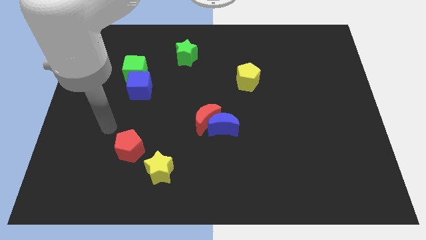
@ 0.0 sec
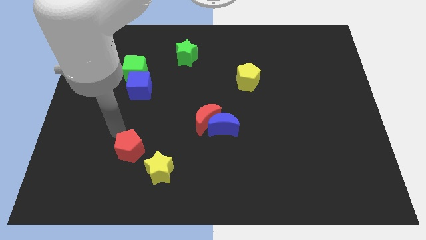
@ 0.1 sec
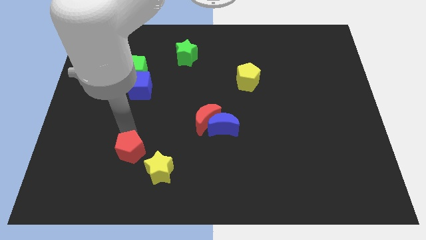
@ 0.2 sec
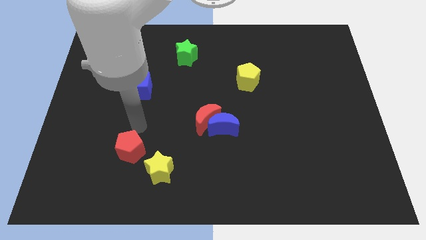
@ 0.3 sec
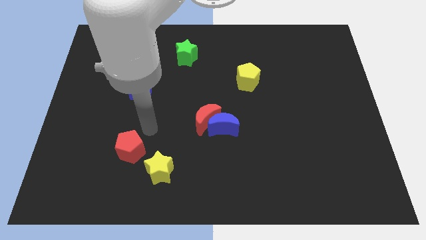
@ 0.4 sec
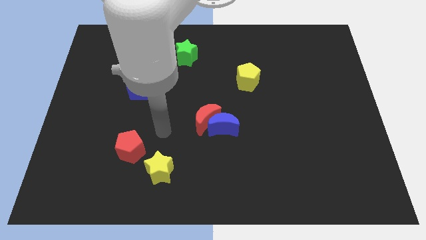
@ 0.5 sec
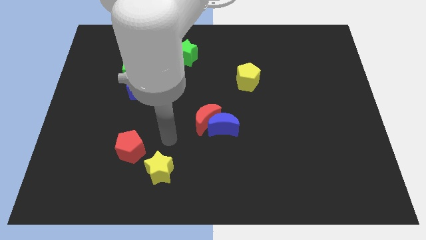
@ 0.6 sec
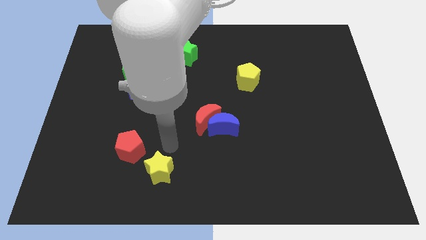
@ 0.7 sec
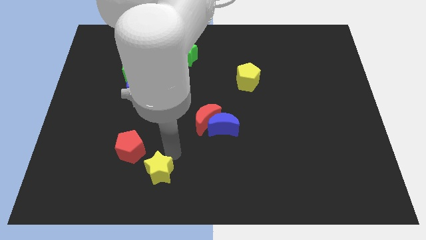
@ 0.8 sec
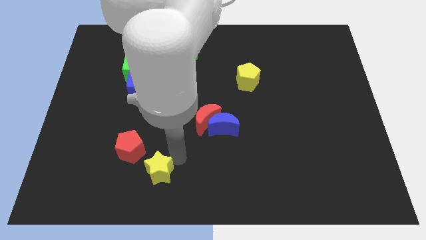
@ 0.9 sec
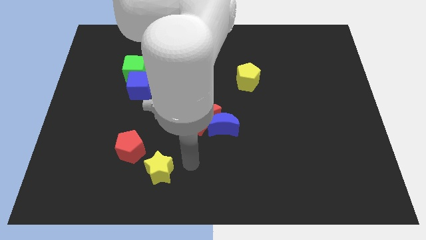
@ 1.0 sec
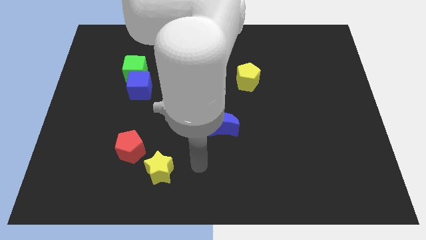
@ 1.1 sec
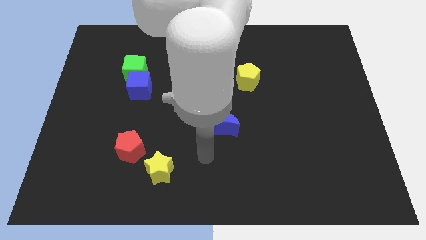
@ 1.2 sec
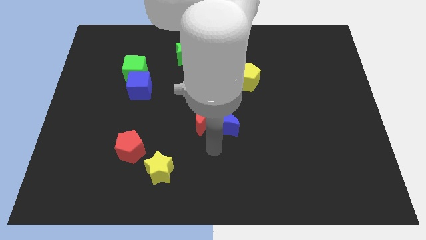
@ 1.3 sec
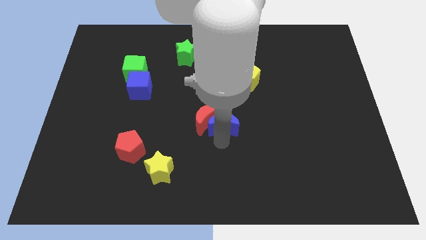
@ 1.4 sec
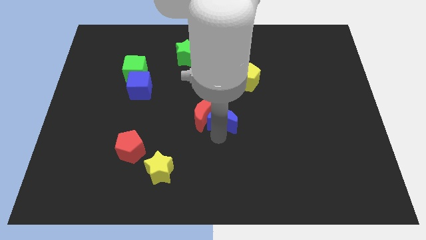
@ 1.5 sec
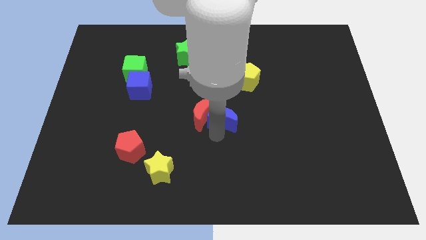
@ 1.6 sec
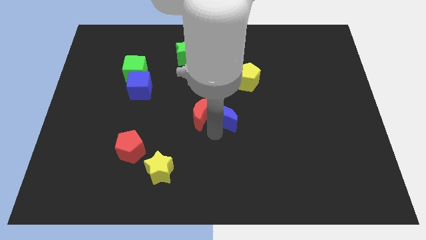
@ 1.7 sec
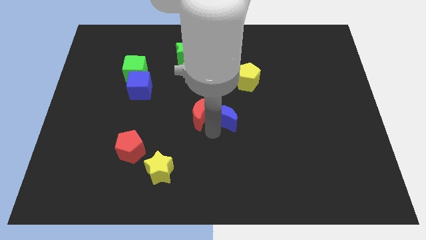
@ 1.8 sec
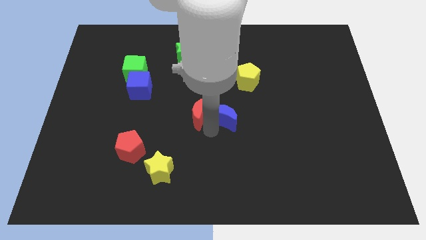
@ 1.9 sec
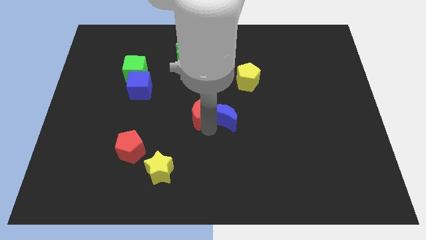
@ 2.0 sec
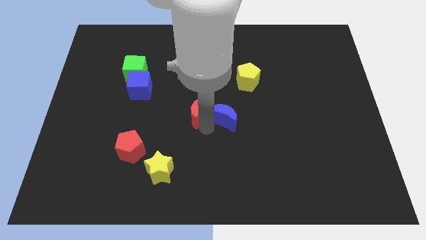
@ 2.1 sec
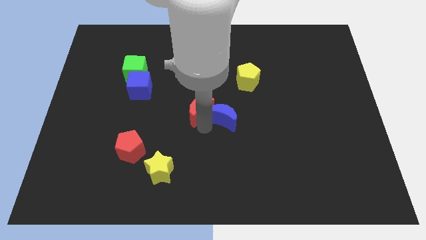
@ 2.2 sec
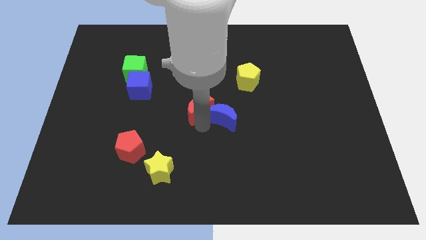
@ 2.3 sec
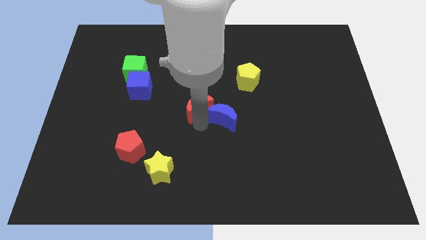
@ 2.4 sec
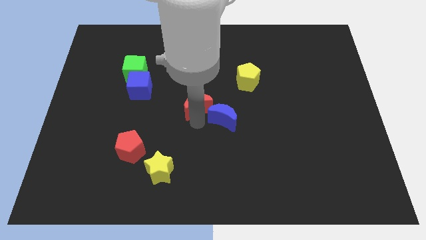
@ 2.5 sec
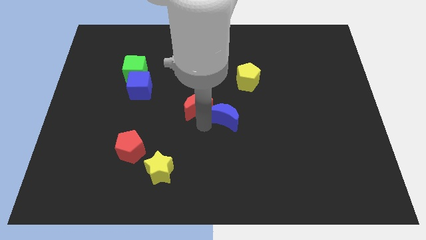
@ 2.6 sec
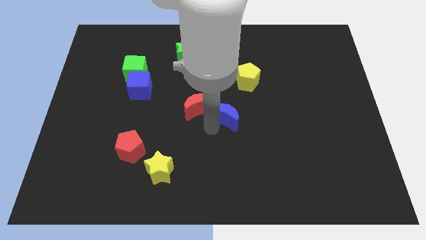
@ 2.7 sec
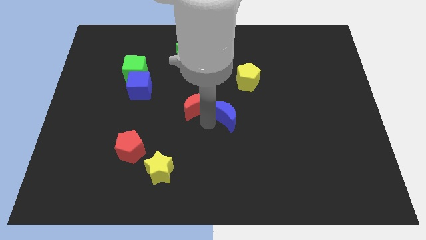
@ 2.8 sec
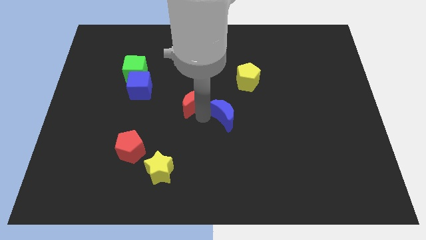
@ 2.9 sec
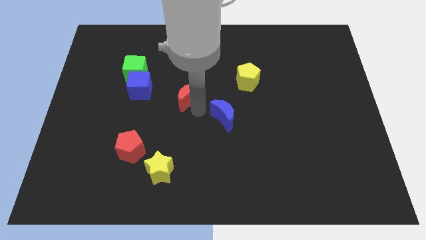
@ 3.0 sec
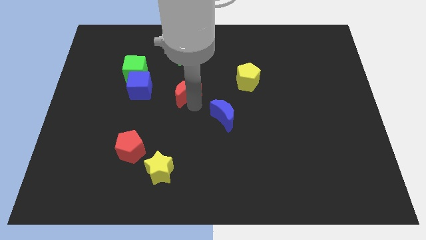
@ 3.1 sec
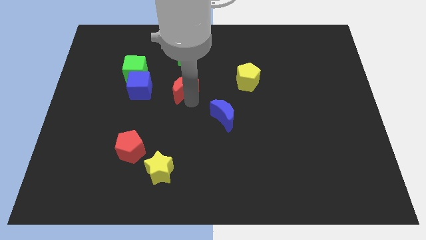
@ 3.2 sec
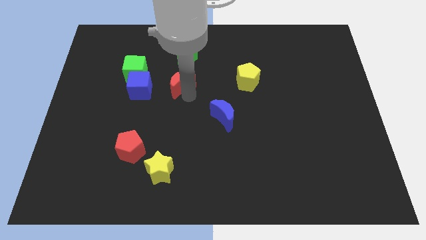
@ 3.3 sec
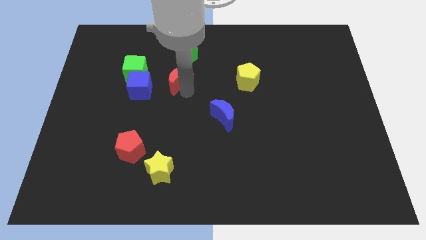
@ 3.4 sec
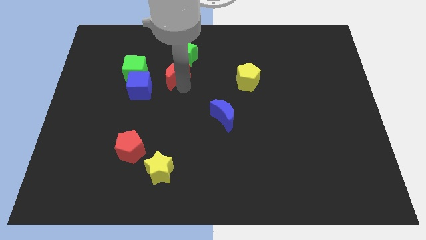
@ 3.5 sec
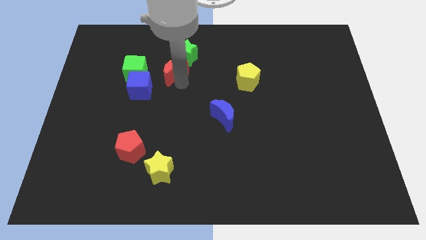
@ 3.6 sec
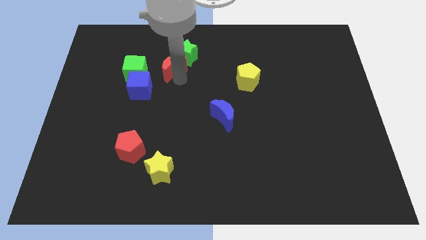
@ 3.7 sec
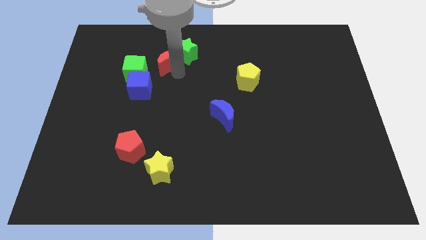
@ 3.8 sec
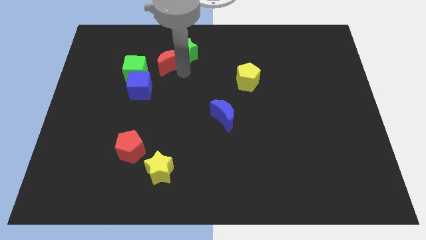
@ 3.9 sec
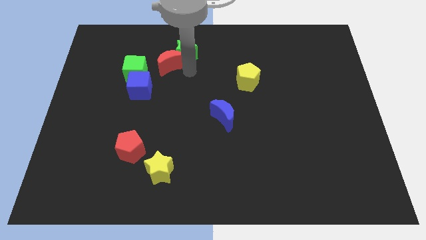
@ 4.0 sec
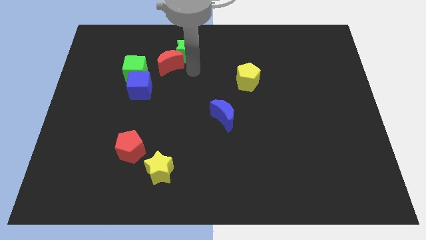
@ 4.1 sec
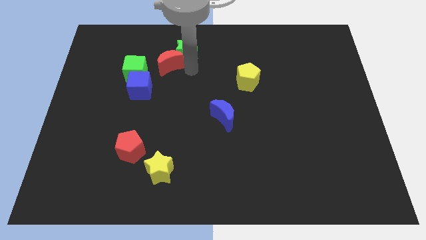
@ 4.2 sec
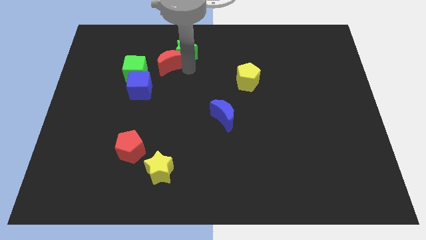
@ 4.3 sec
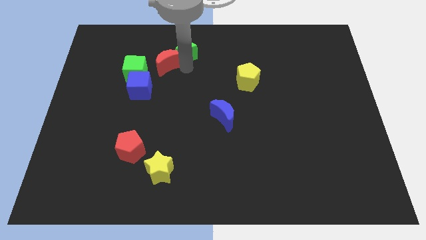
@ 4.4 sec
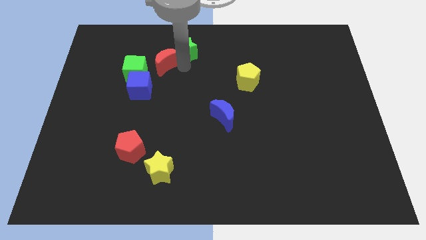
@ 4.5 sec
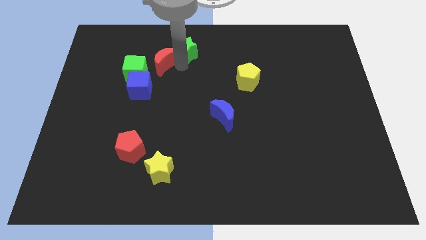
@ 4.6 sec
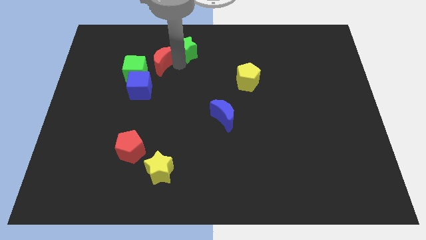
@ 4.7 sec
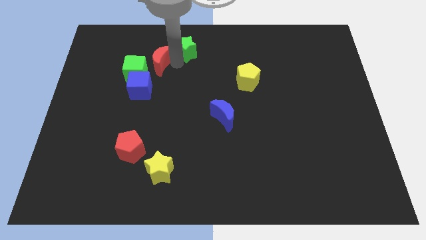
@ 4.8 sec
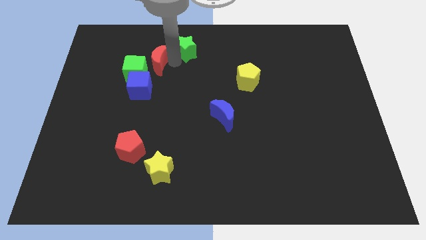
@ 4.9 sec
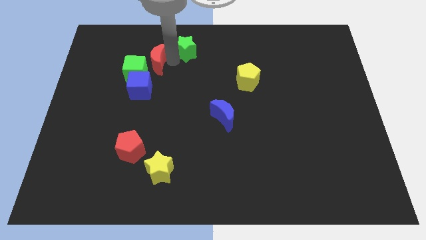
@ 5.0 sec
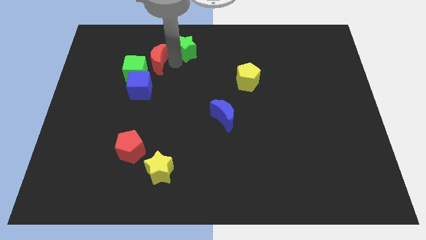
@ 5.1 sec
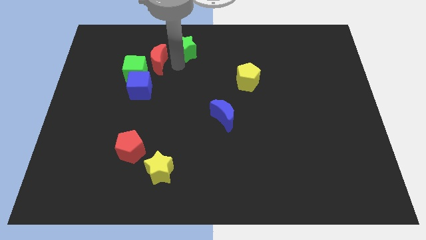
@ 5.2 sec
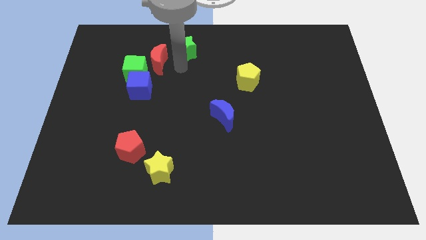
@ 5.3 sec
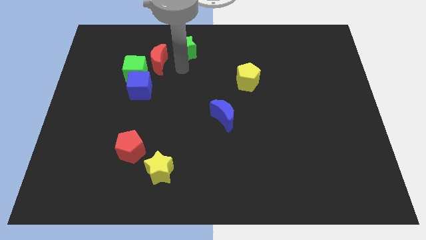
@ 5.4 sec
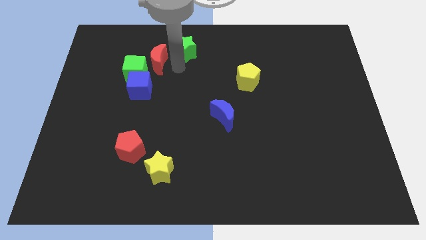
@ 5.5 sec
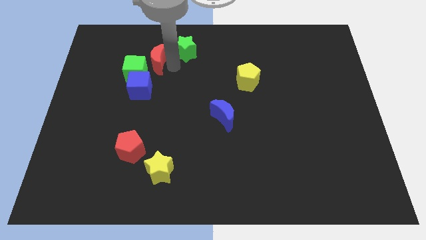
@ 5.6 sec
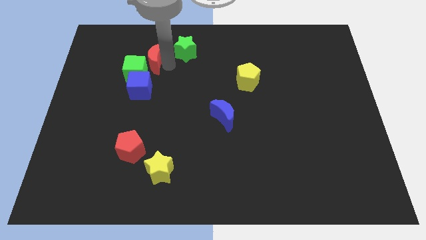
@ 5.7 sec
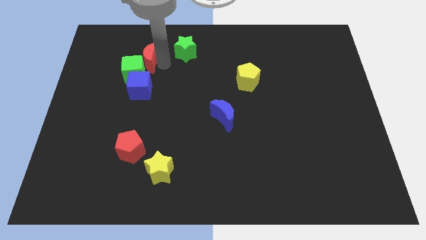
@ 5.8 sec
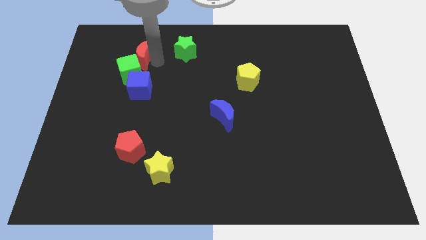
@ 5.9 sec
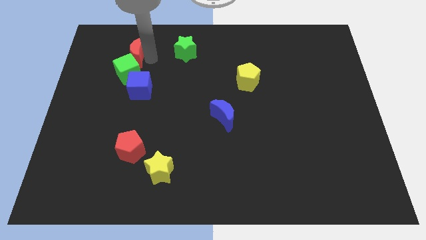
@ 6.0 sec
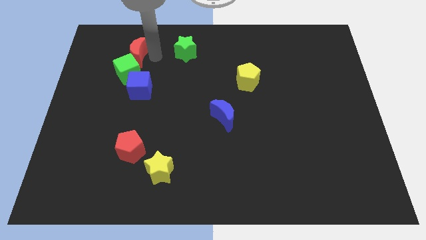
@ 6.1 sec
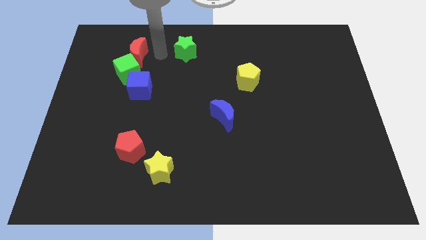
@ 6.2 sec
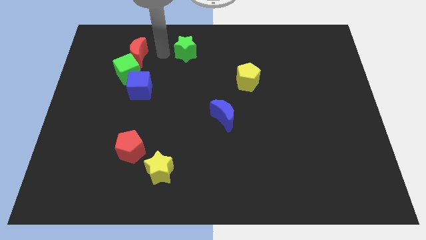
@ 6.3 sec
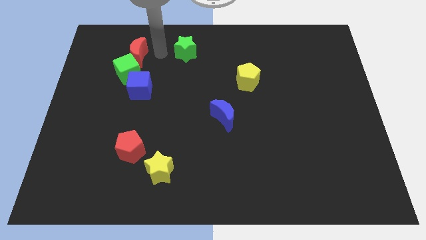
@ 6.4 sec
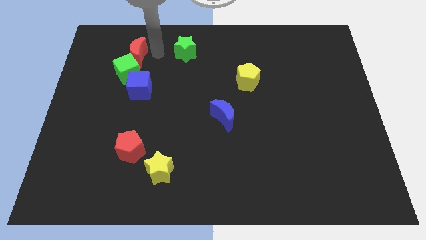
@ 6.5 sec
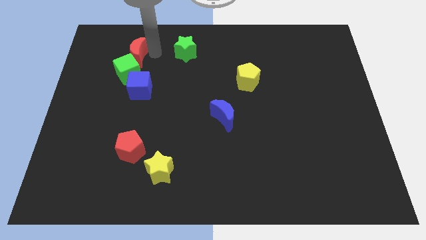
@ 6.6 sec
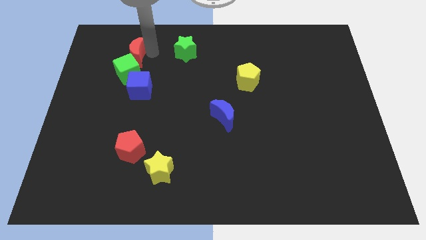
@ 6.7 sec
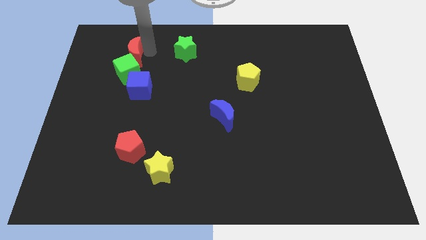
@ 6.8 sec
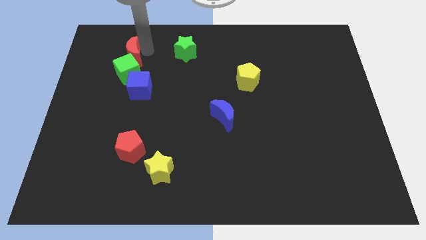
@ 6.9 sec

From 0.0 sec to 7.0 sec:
move the red moon to the top left side of the green cube

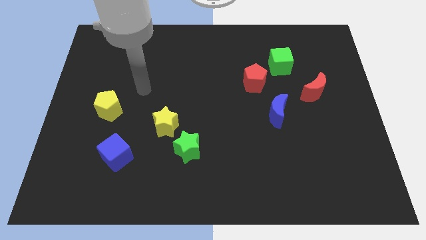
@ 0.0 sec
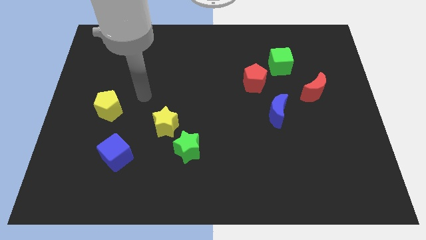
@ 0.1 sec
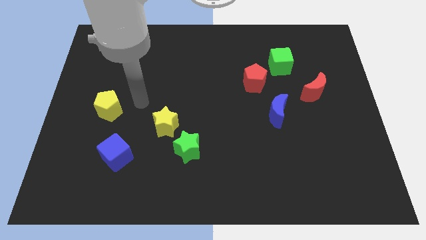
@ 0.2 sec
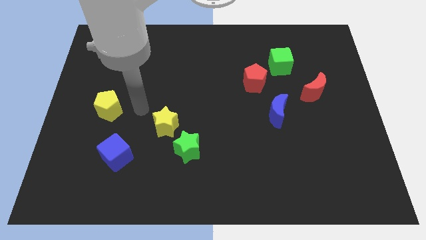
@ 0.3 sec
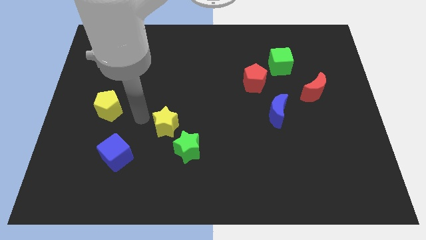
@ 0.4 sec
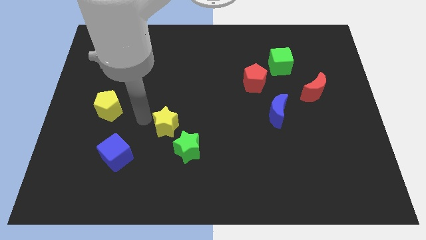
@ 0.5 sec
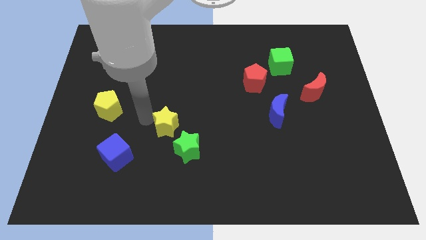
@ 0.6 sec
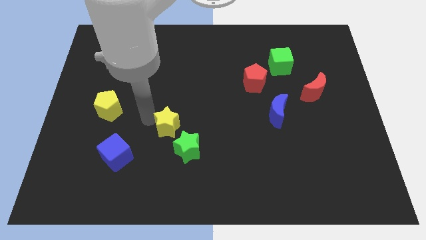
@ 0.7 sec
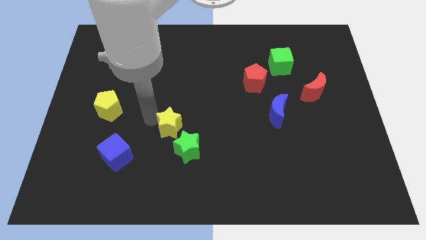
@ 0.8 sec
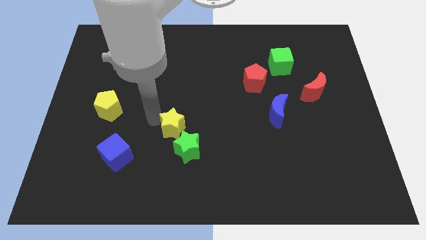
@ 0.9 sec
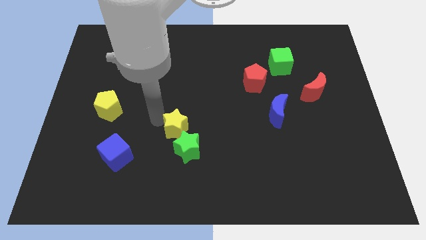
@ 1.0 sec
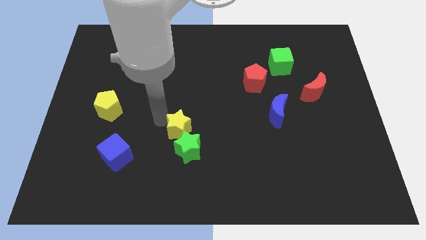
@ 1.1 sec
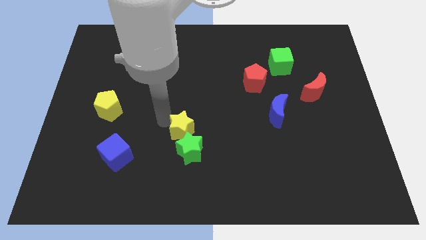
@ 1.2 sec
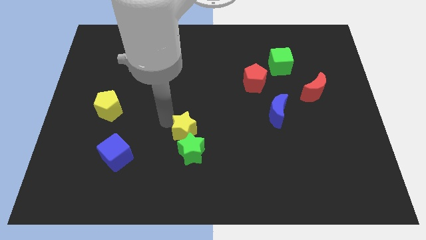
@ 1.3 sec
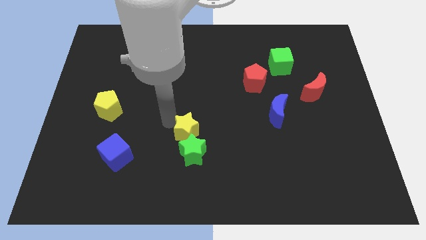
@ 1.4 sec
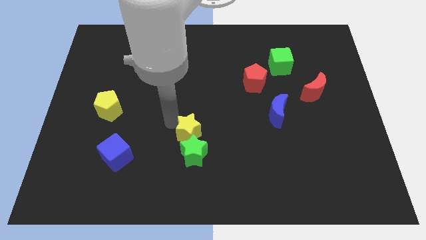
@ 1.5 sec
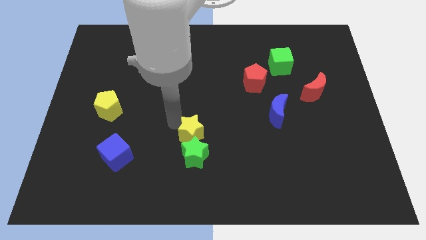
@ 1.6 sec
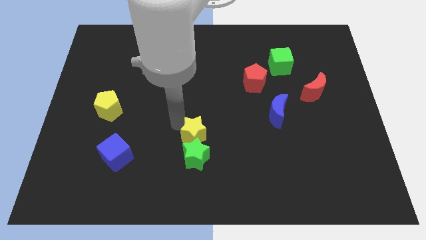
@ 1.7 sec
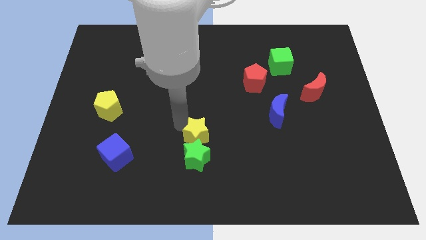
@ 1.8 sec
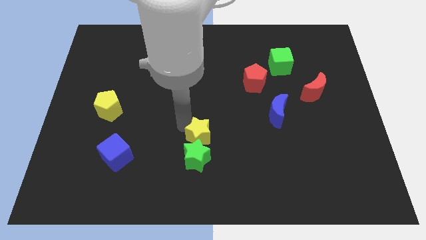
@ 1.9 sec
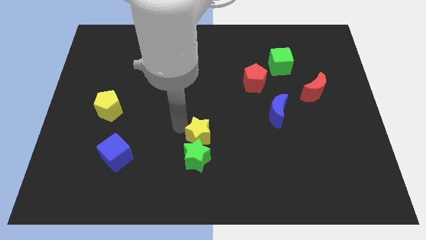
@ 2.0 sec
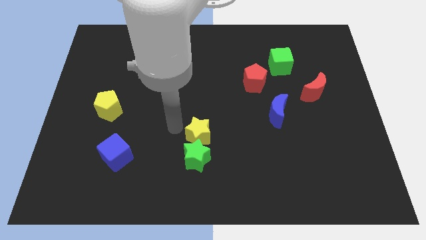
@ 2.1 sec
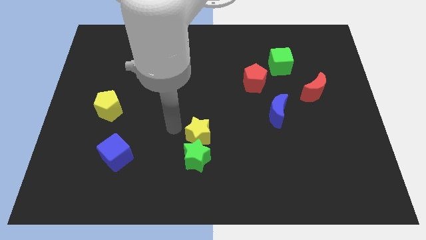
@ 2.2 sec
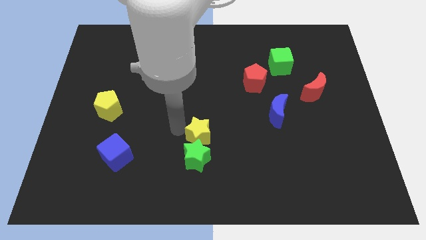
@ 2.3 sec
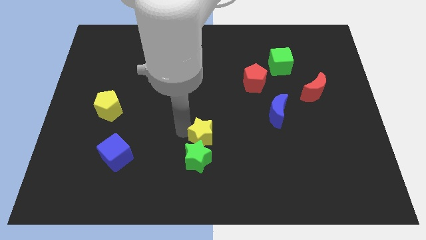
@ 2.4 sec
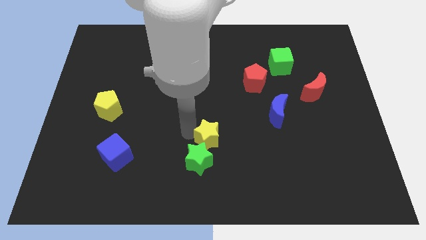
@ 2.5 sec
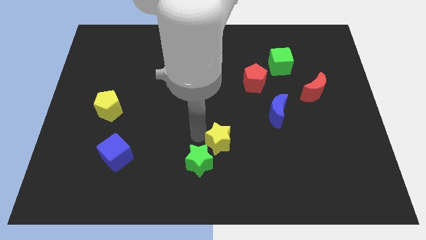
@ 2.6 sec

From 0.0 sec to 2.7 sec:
put the yellow star just right of the green star
